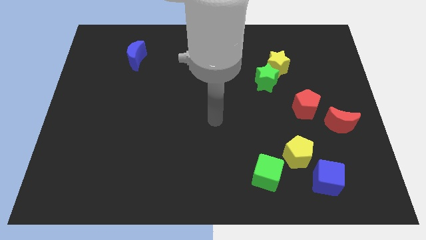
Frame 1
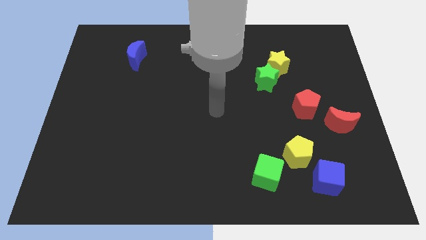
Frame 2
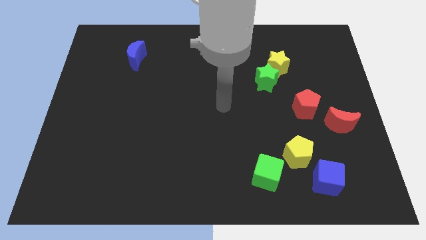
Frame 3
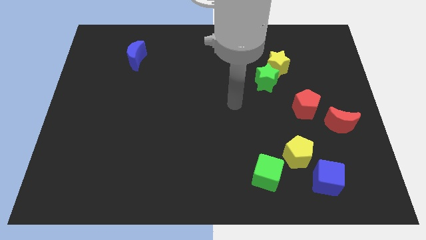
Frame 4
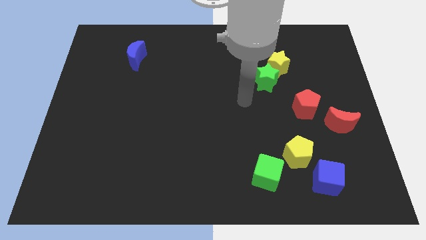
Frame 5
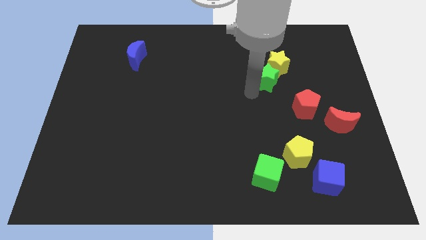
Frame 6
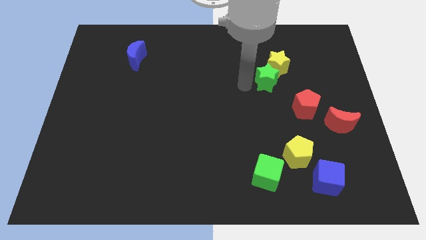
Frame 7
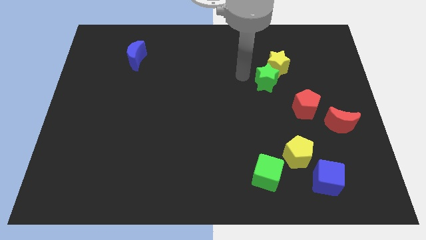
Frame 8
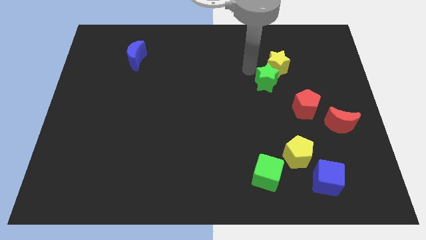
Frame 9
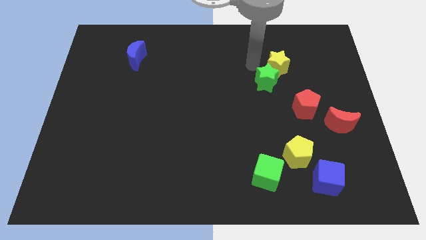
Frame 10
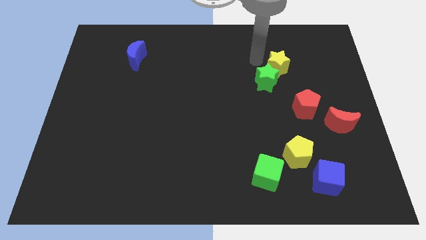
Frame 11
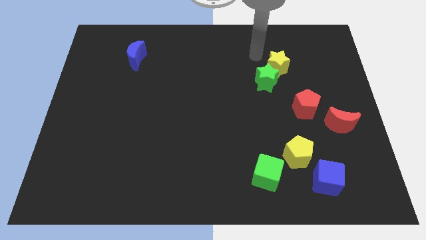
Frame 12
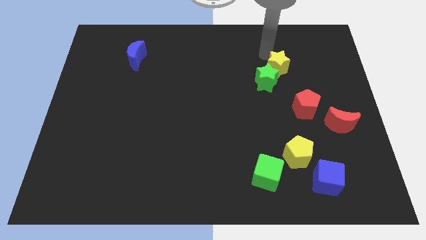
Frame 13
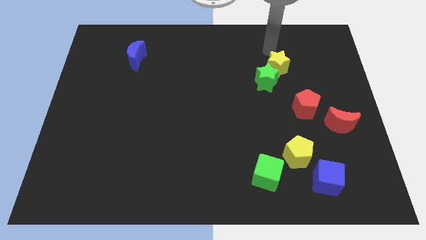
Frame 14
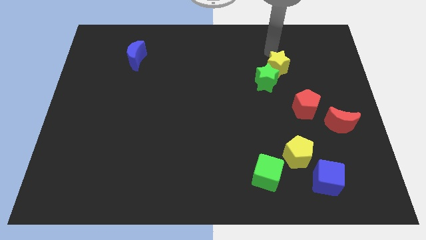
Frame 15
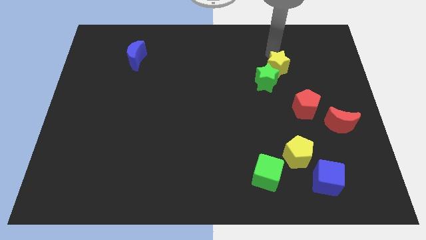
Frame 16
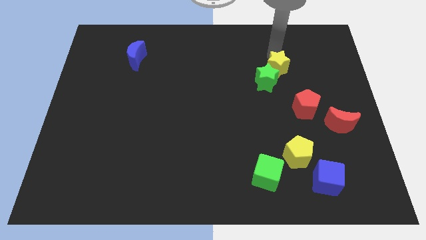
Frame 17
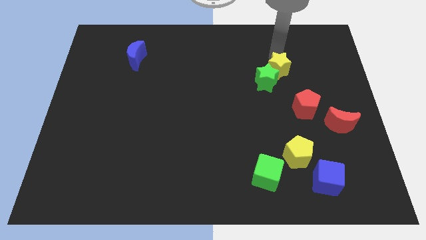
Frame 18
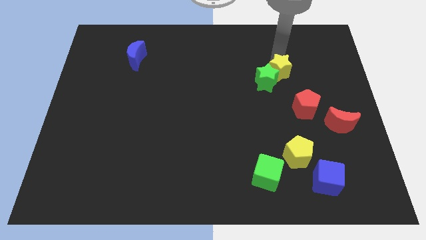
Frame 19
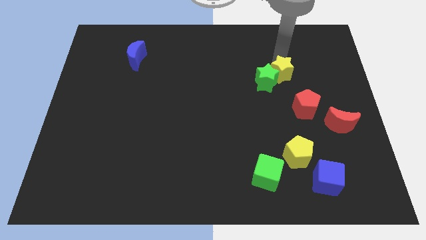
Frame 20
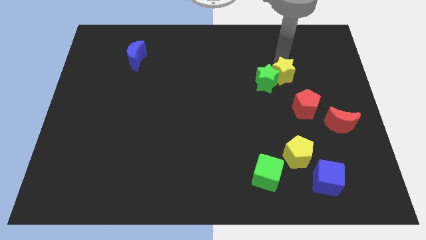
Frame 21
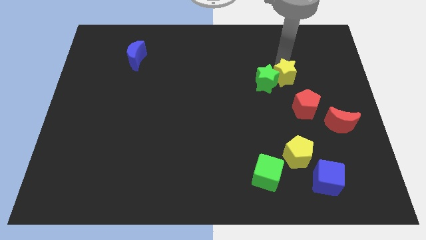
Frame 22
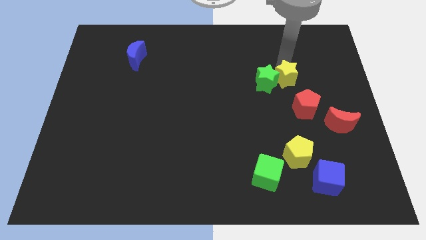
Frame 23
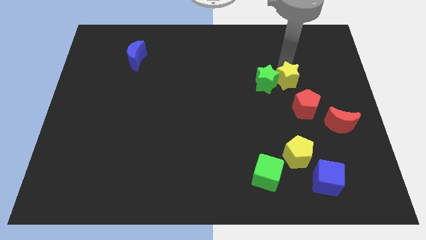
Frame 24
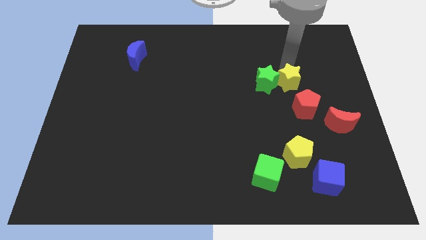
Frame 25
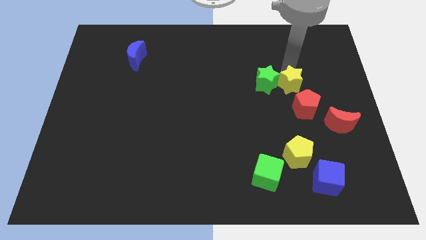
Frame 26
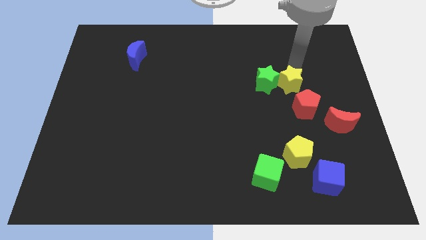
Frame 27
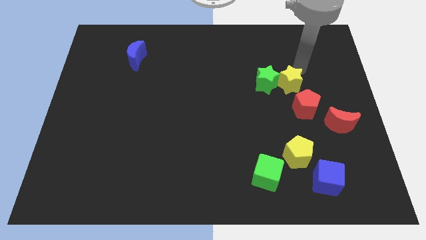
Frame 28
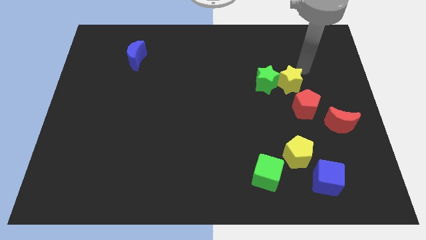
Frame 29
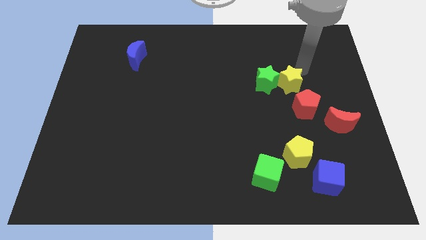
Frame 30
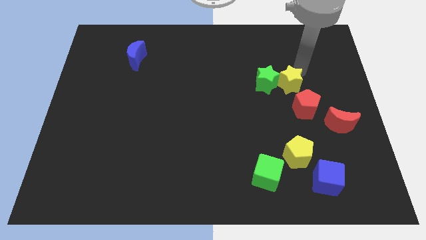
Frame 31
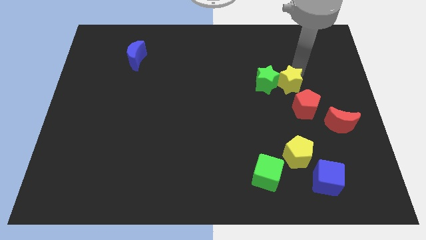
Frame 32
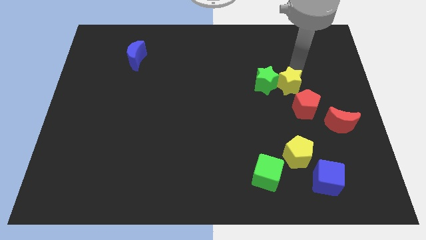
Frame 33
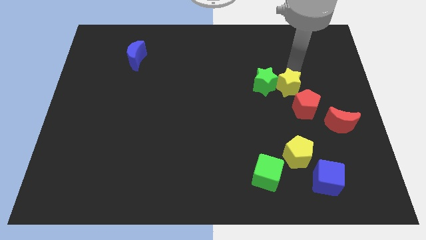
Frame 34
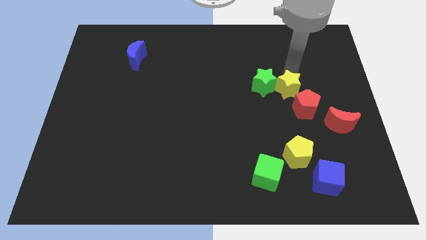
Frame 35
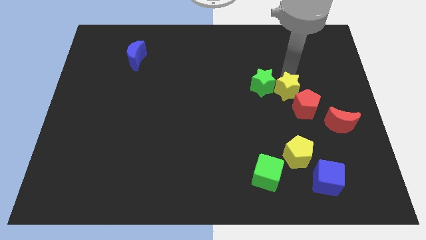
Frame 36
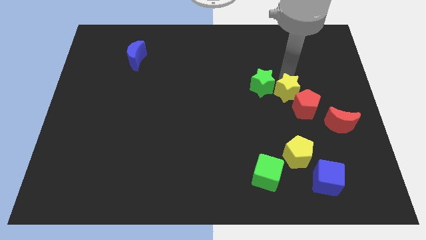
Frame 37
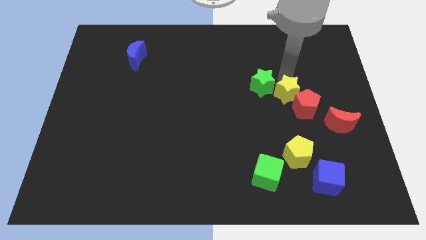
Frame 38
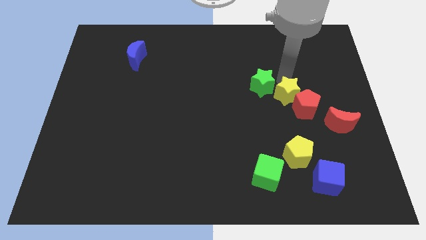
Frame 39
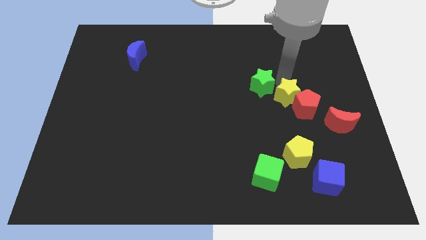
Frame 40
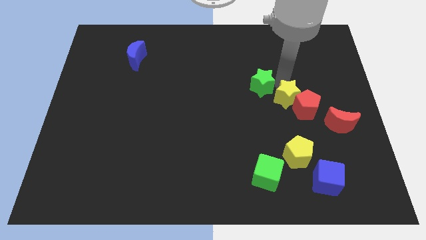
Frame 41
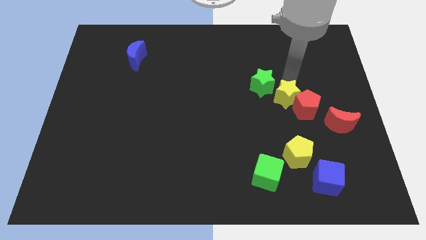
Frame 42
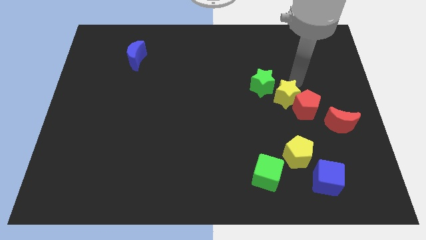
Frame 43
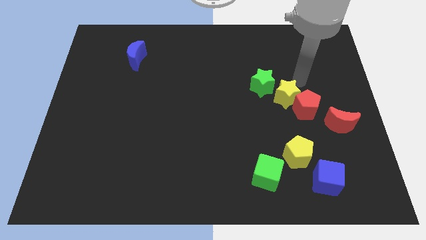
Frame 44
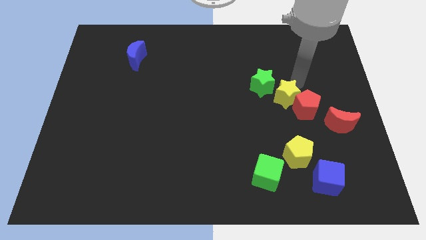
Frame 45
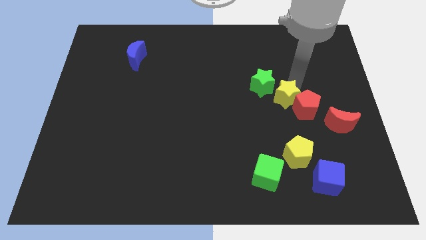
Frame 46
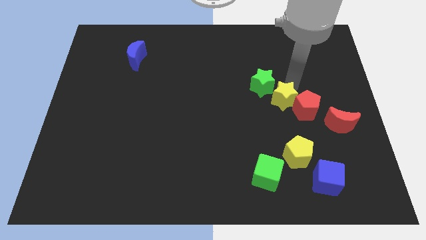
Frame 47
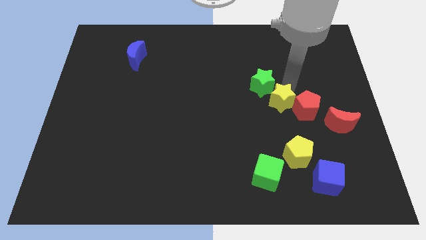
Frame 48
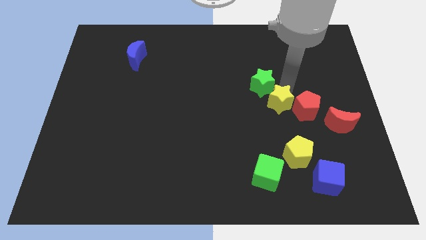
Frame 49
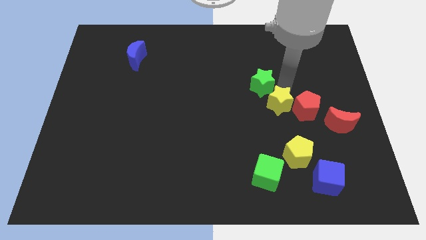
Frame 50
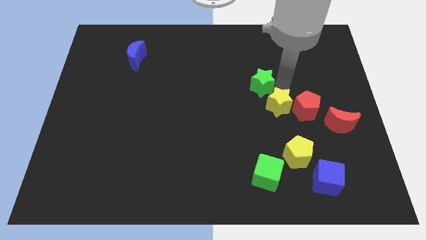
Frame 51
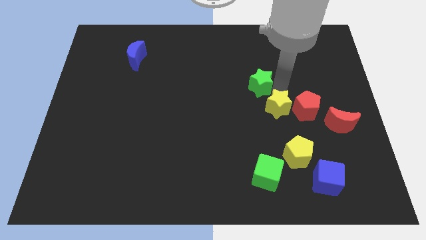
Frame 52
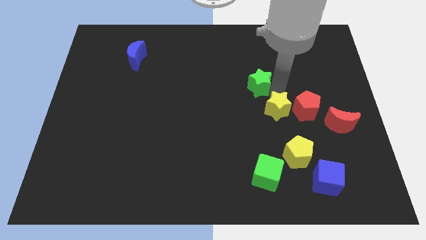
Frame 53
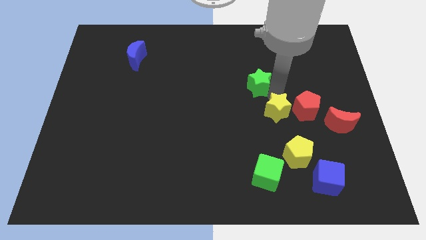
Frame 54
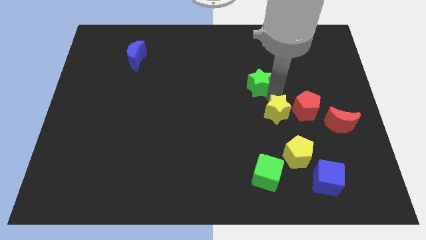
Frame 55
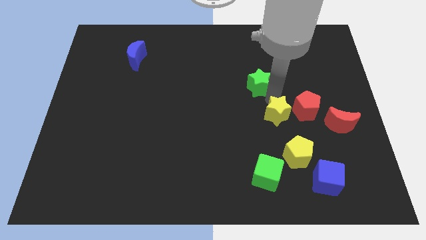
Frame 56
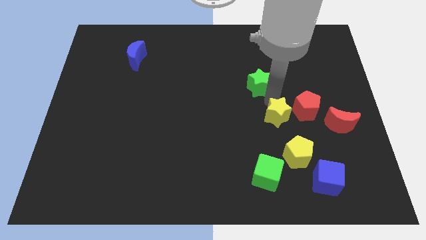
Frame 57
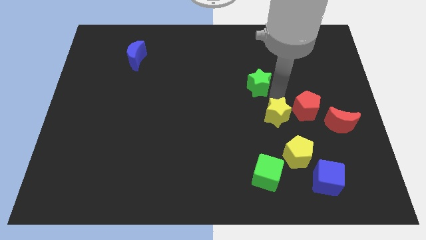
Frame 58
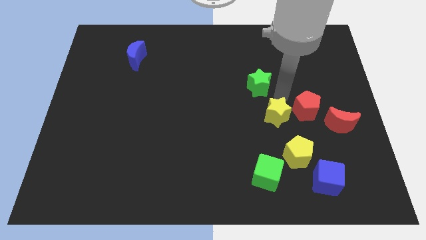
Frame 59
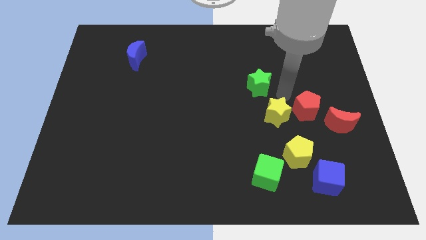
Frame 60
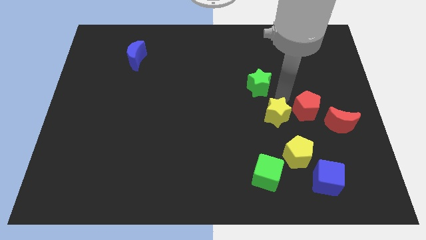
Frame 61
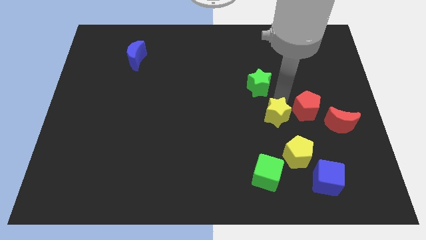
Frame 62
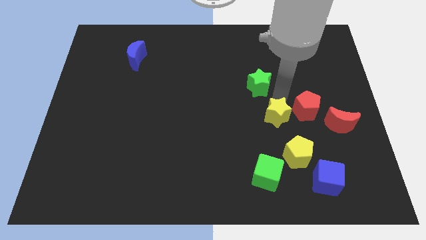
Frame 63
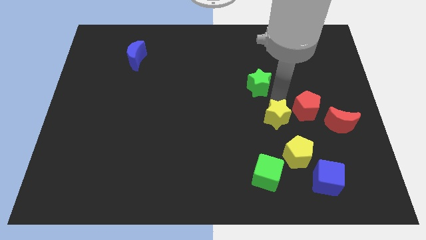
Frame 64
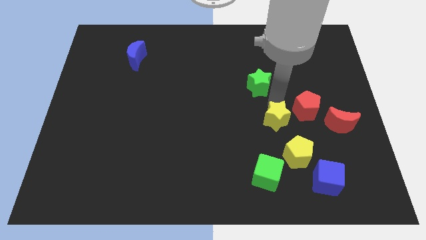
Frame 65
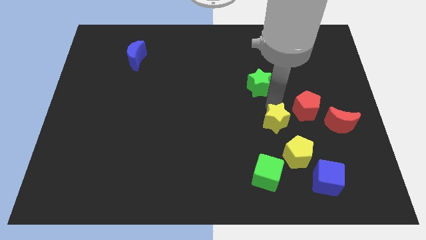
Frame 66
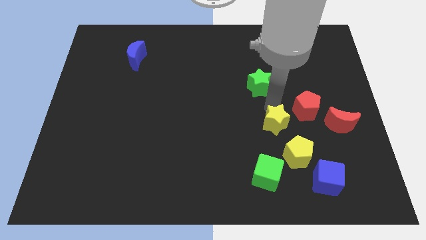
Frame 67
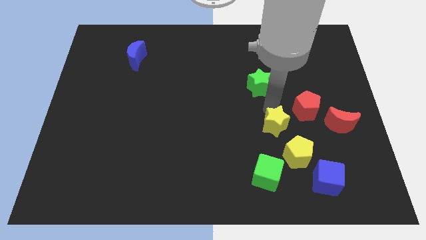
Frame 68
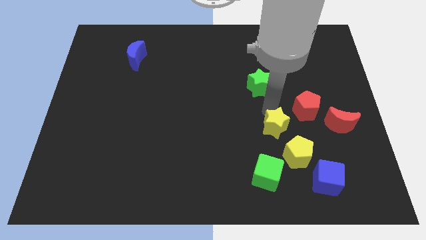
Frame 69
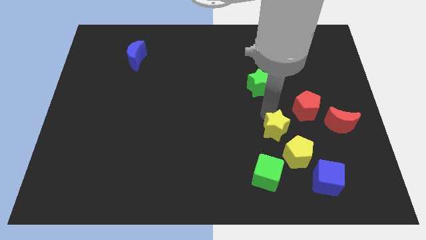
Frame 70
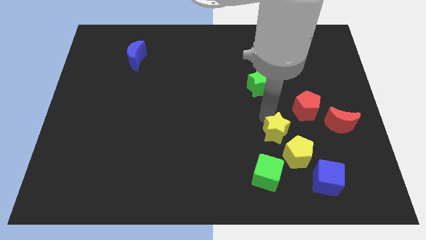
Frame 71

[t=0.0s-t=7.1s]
push the yellow star downwards

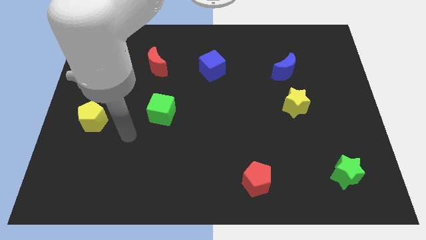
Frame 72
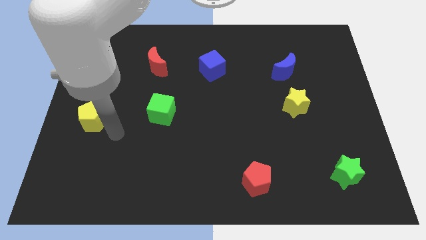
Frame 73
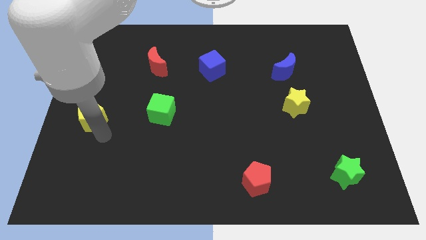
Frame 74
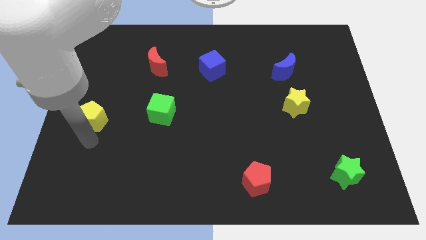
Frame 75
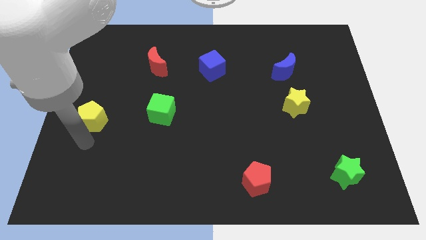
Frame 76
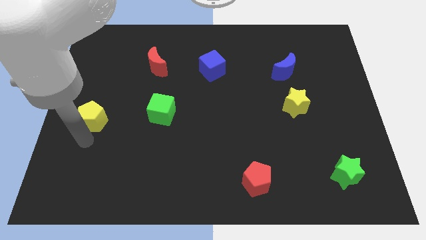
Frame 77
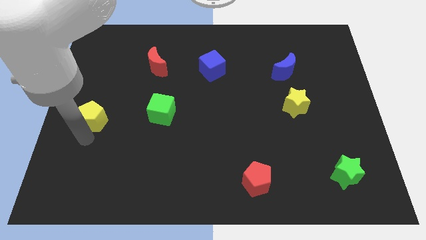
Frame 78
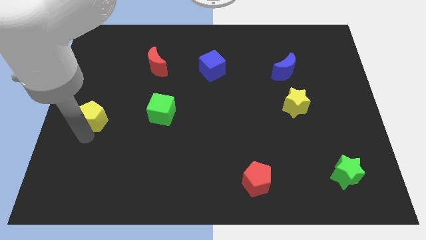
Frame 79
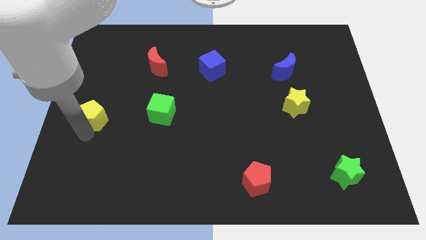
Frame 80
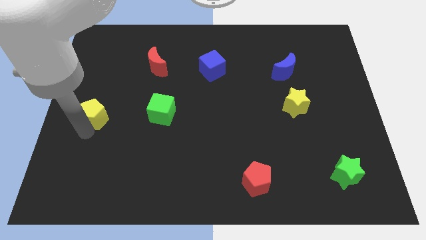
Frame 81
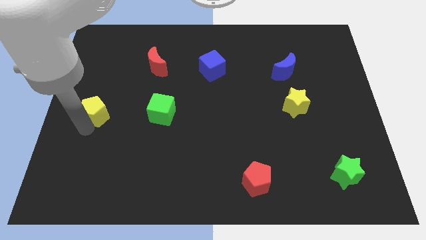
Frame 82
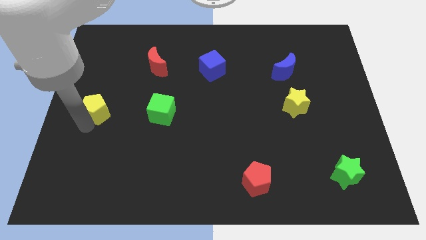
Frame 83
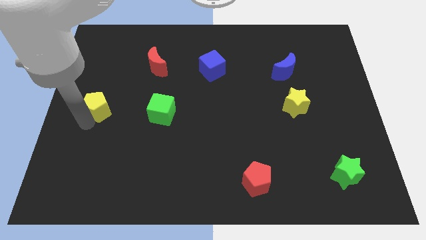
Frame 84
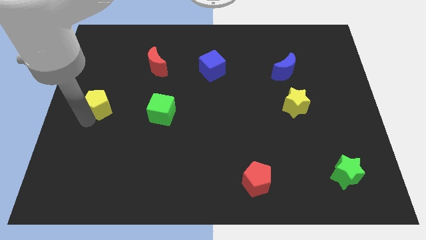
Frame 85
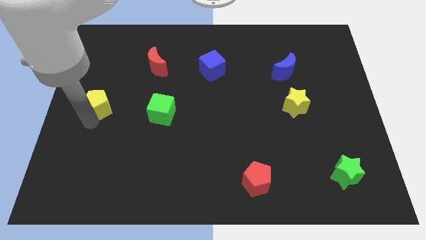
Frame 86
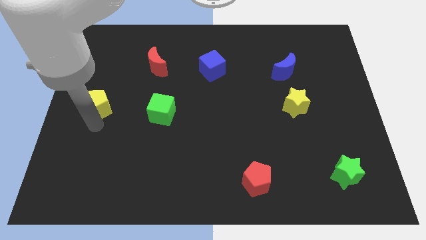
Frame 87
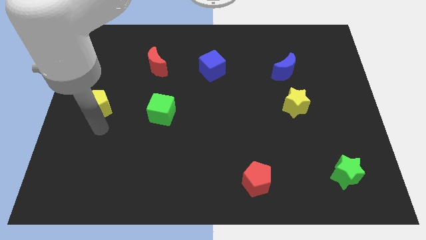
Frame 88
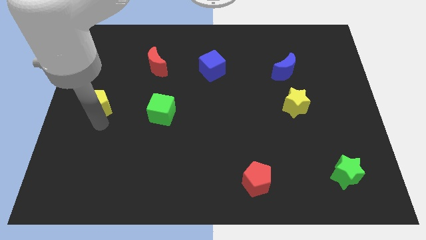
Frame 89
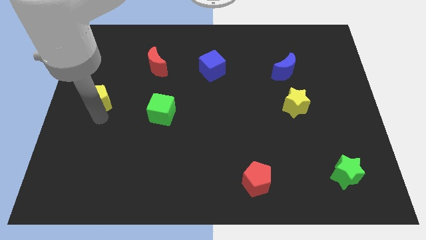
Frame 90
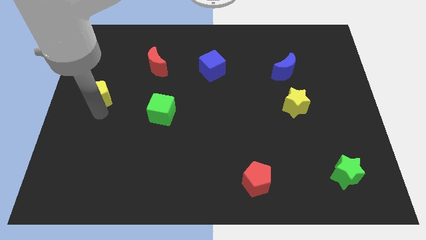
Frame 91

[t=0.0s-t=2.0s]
push the yellow pentagon somewhat upwards
